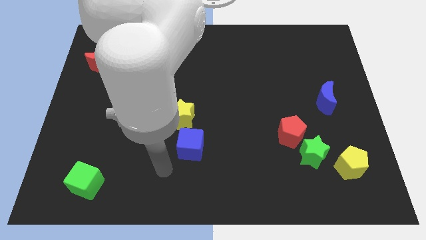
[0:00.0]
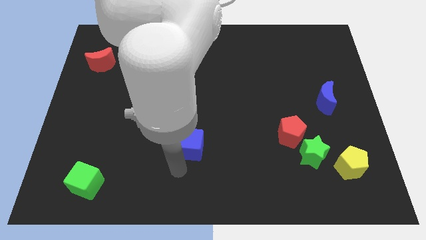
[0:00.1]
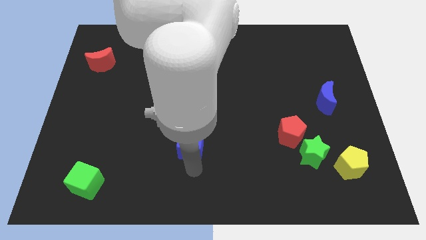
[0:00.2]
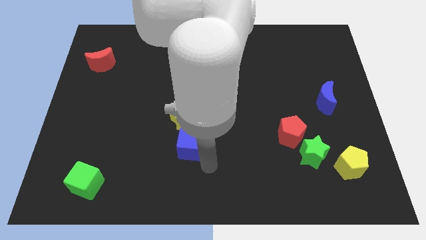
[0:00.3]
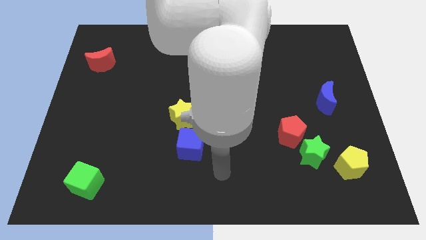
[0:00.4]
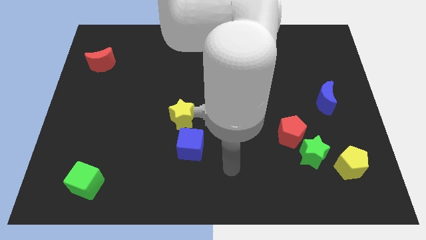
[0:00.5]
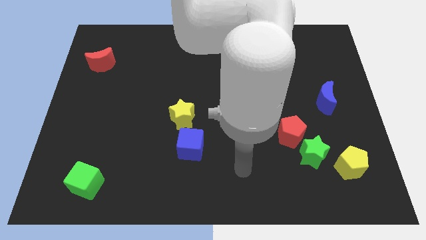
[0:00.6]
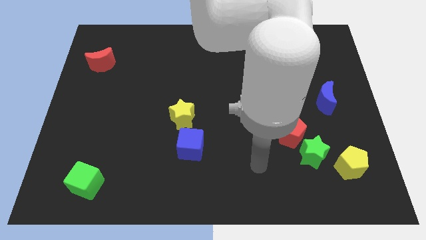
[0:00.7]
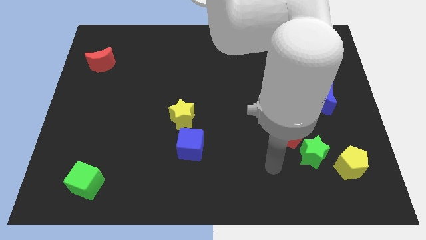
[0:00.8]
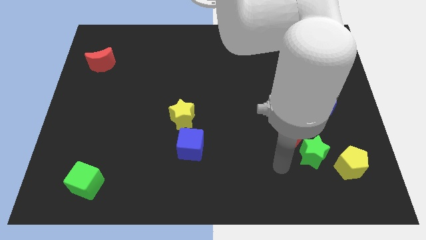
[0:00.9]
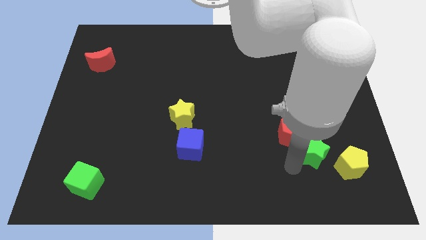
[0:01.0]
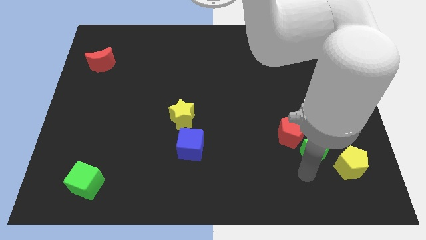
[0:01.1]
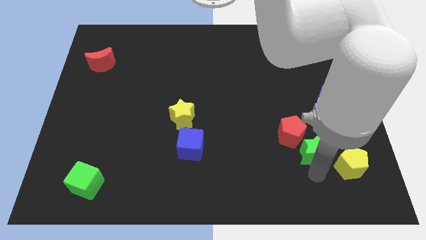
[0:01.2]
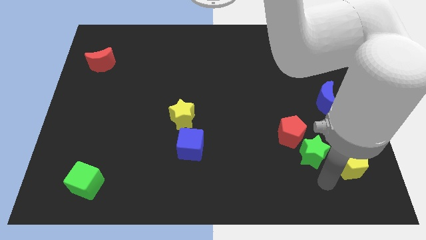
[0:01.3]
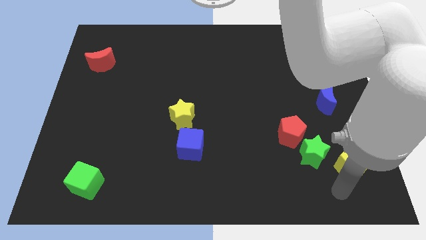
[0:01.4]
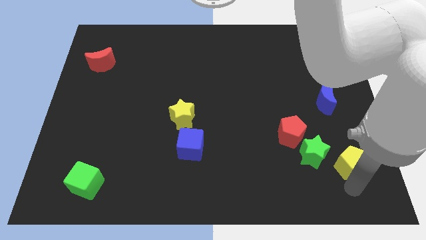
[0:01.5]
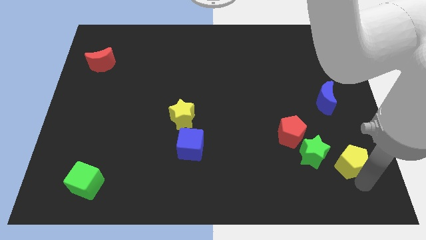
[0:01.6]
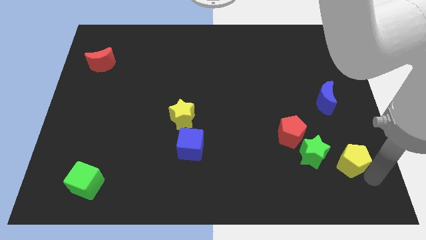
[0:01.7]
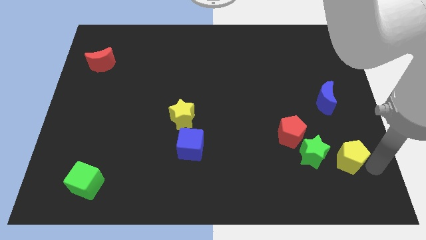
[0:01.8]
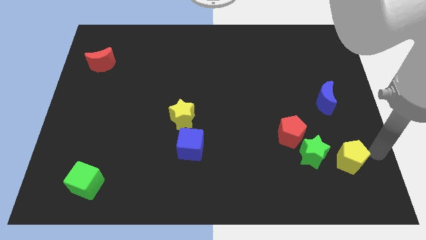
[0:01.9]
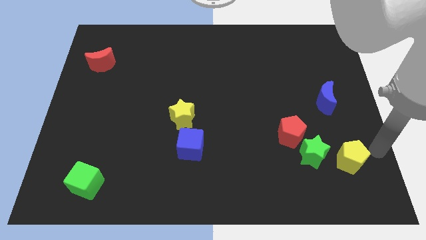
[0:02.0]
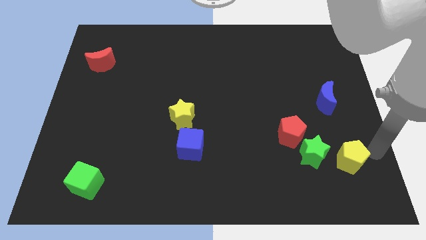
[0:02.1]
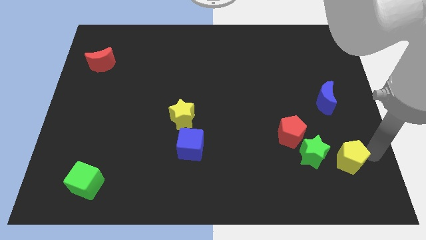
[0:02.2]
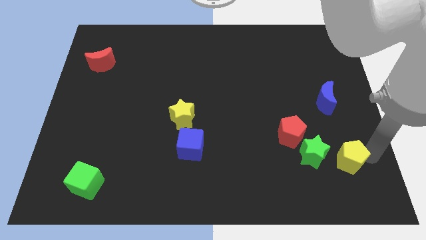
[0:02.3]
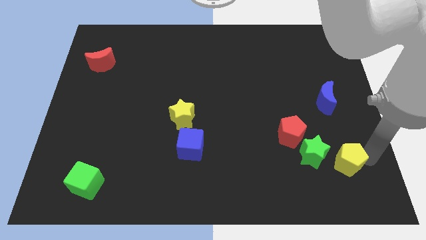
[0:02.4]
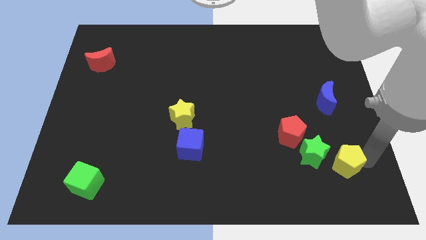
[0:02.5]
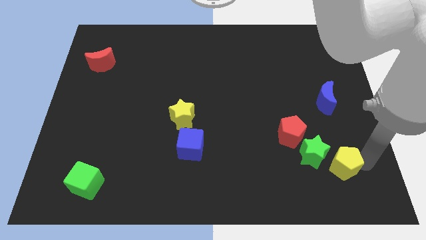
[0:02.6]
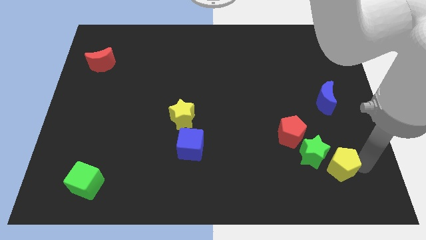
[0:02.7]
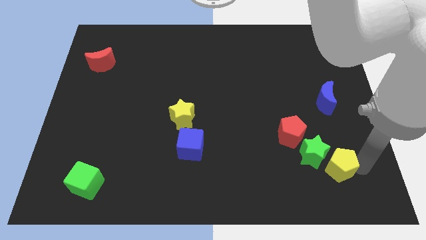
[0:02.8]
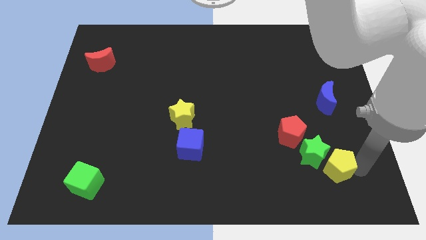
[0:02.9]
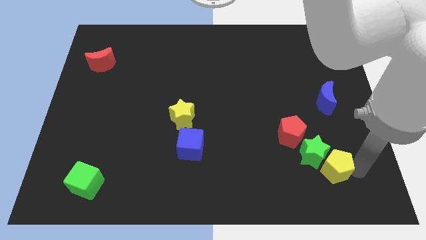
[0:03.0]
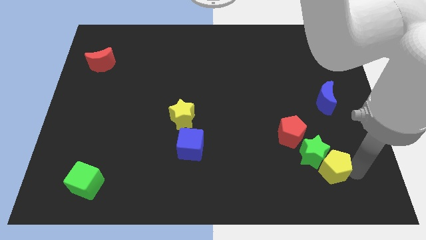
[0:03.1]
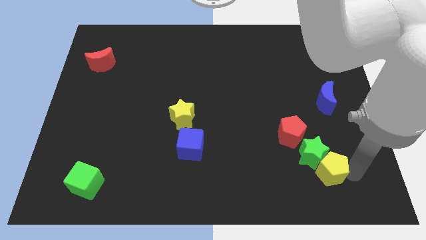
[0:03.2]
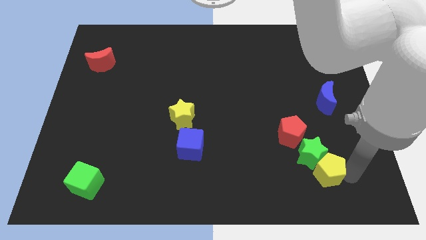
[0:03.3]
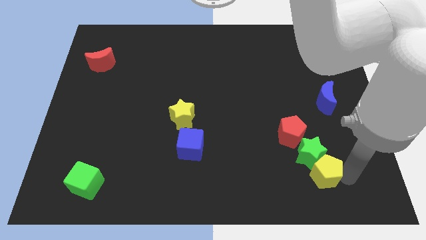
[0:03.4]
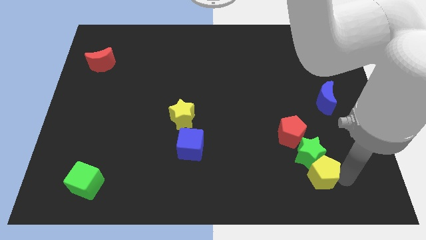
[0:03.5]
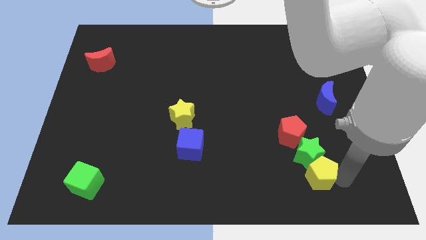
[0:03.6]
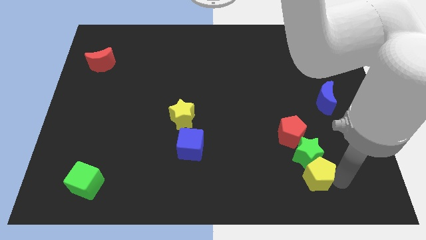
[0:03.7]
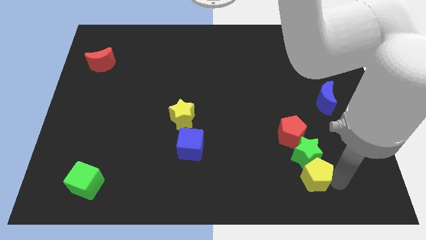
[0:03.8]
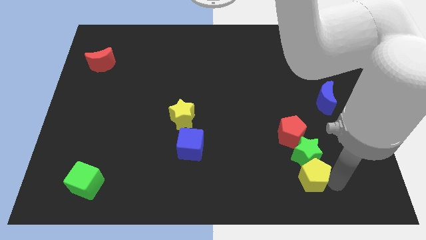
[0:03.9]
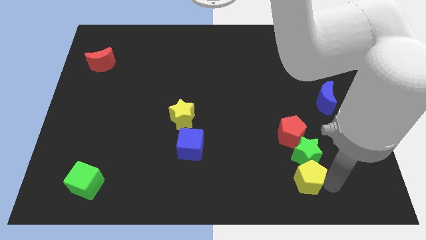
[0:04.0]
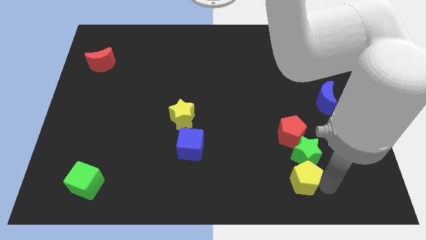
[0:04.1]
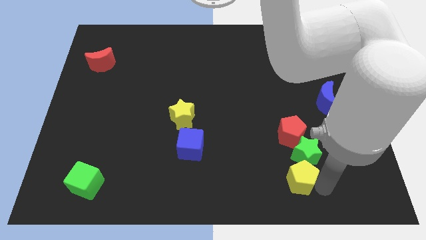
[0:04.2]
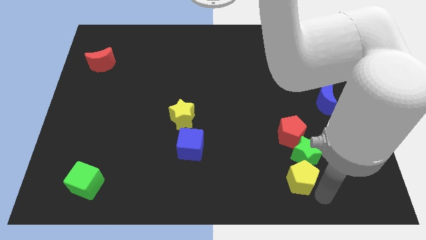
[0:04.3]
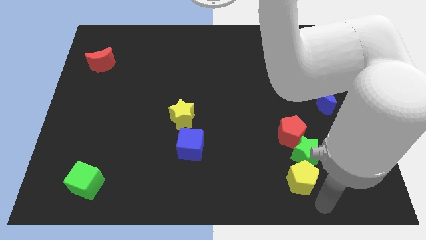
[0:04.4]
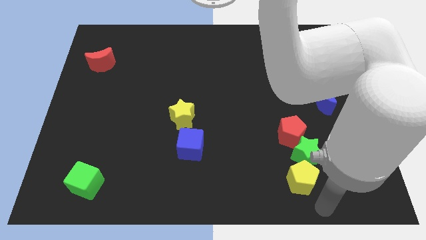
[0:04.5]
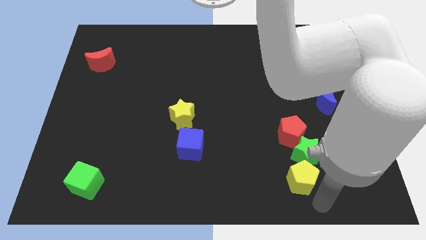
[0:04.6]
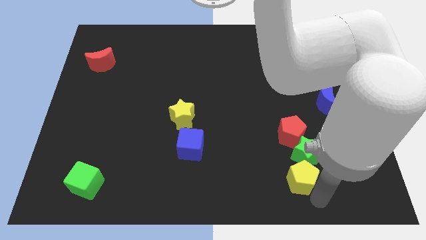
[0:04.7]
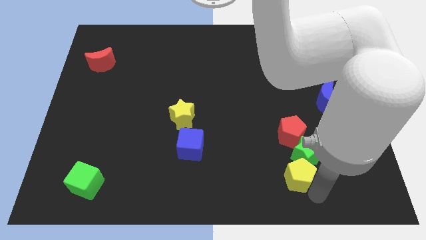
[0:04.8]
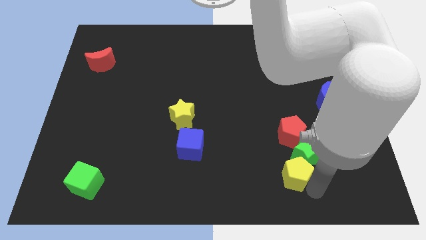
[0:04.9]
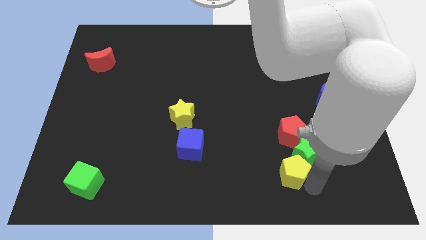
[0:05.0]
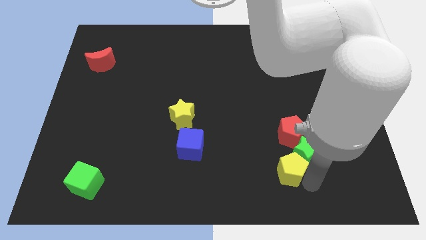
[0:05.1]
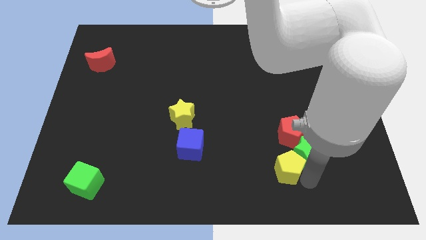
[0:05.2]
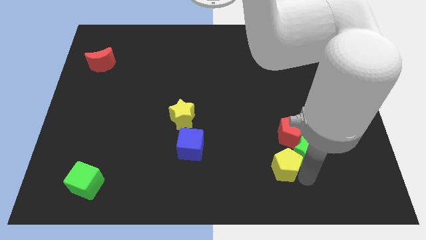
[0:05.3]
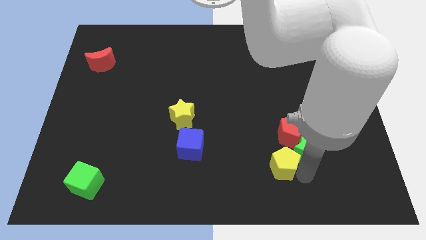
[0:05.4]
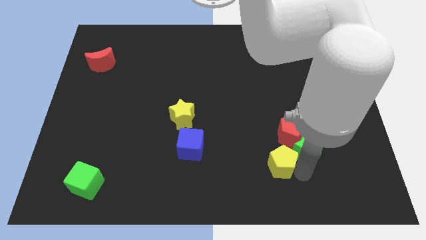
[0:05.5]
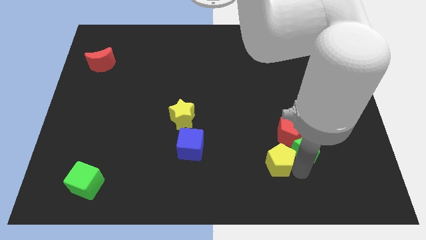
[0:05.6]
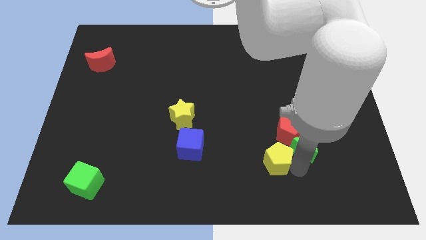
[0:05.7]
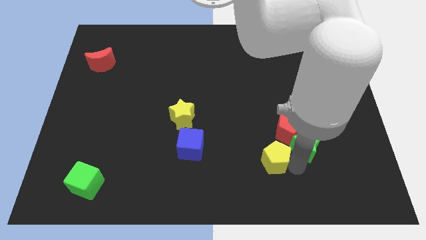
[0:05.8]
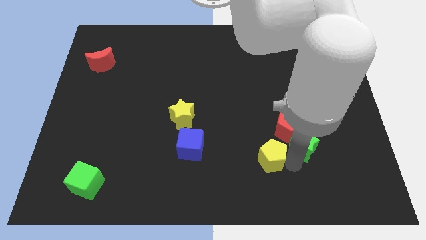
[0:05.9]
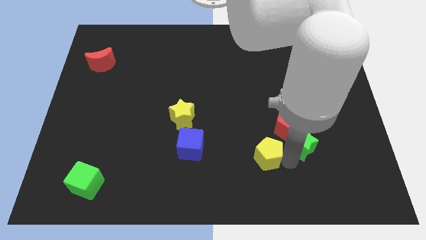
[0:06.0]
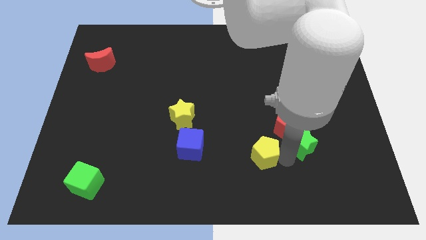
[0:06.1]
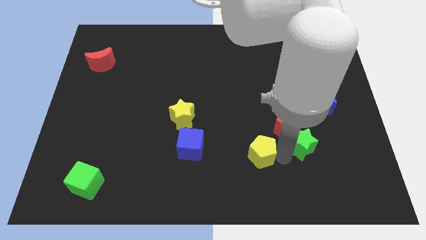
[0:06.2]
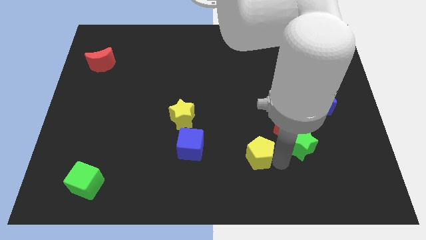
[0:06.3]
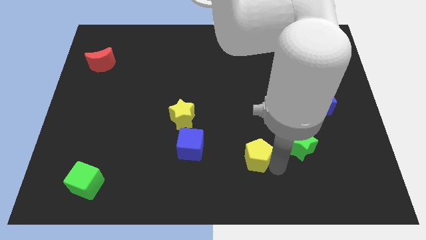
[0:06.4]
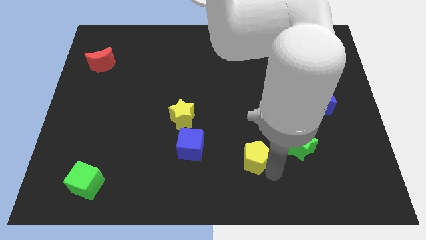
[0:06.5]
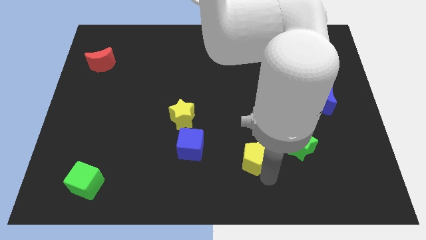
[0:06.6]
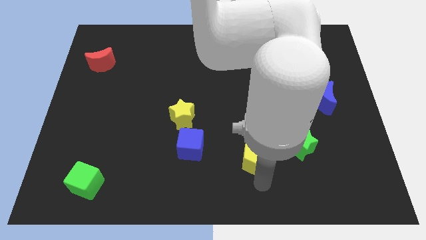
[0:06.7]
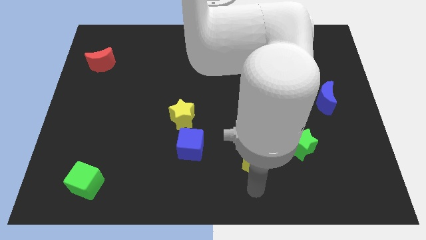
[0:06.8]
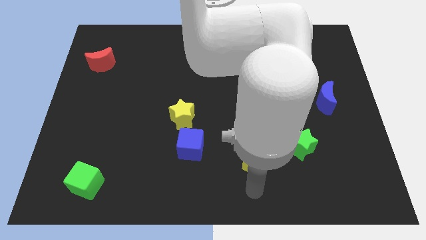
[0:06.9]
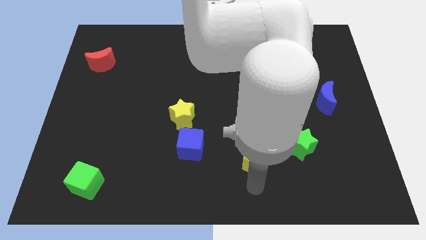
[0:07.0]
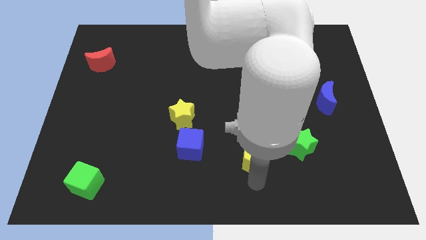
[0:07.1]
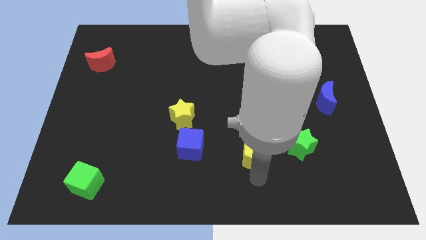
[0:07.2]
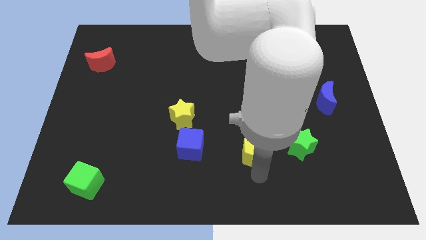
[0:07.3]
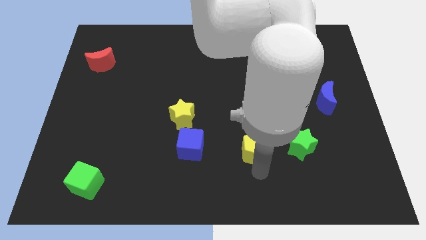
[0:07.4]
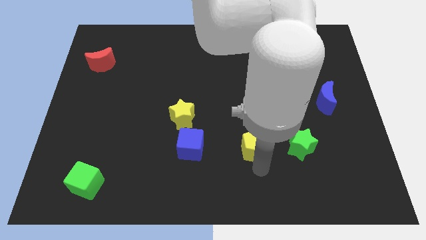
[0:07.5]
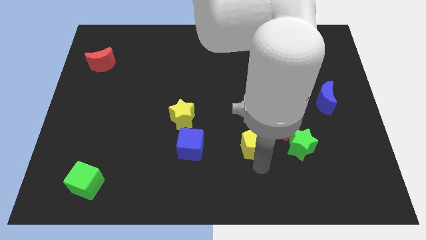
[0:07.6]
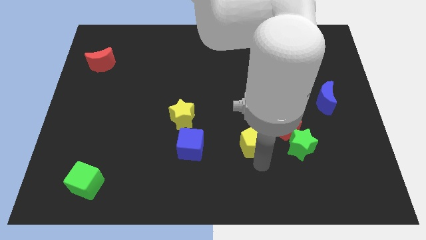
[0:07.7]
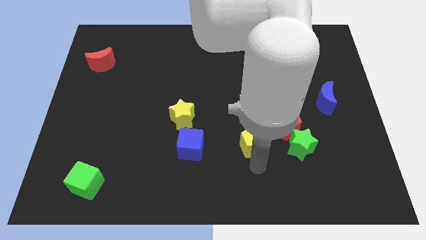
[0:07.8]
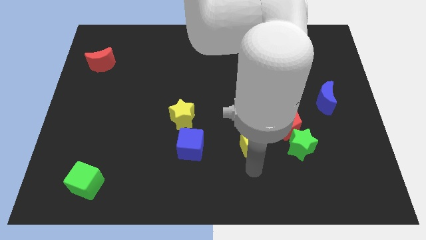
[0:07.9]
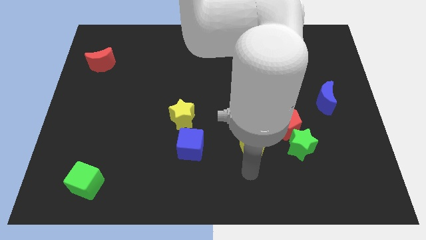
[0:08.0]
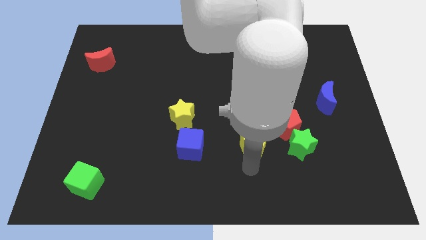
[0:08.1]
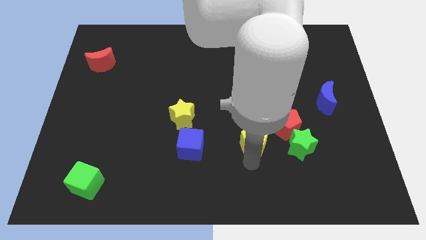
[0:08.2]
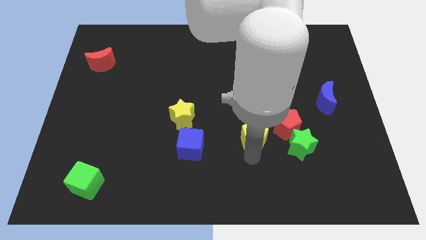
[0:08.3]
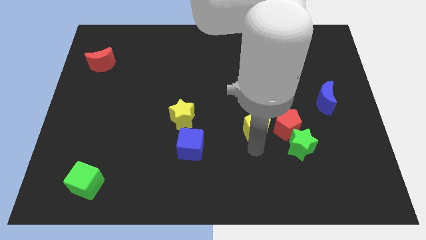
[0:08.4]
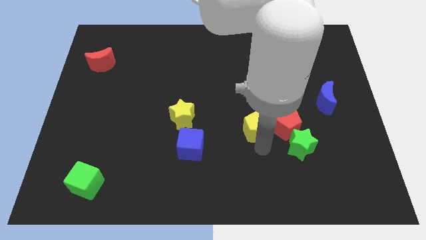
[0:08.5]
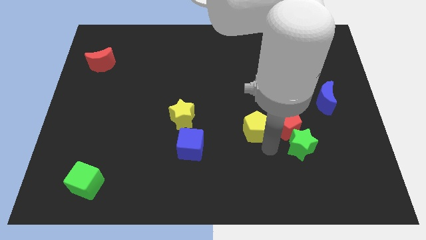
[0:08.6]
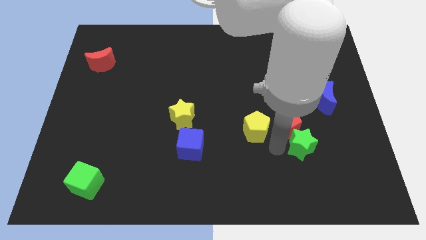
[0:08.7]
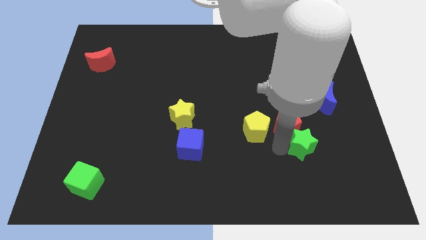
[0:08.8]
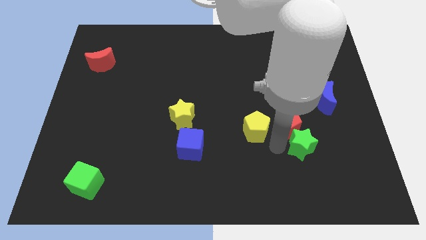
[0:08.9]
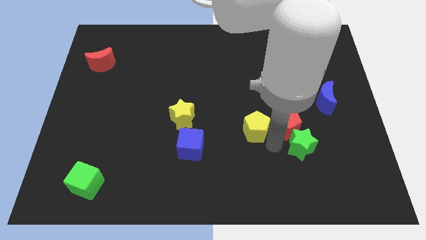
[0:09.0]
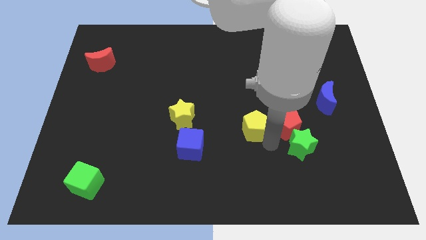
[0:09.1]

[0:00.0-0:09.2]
slide the yellow pentagon to the middle of the board
